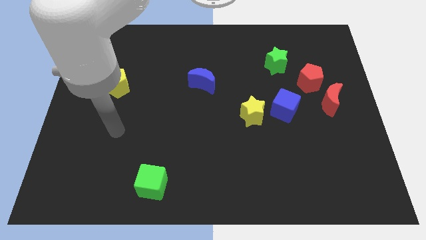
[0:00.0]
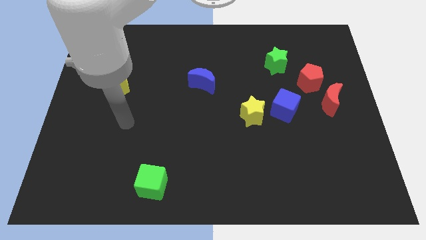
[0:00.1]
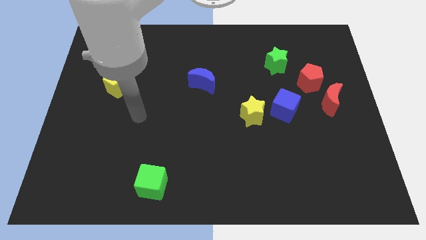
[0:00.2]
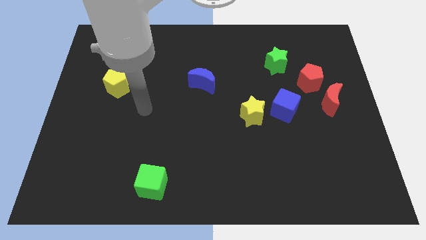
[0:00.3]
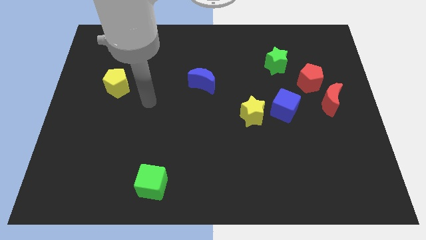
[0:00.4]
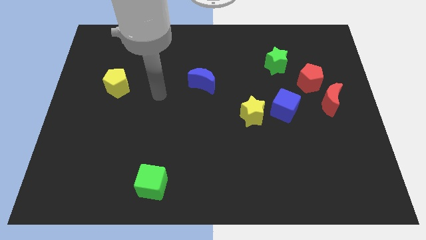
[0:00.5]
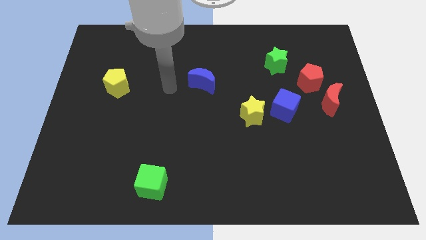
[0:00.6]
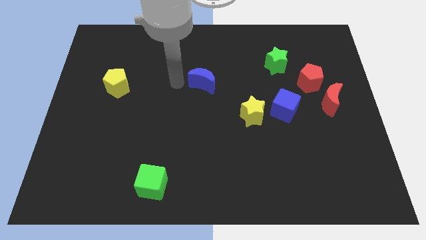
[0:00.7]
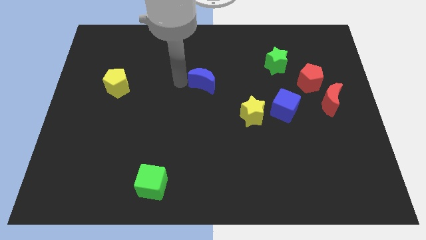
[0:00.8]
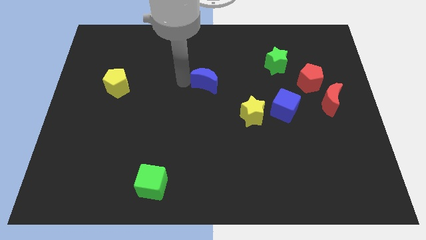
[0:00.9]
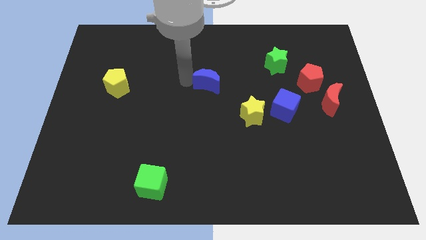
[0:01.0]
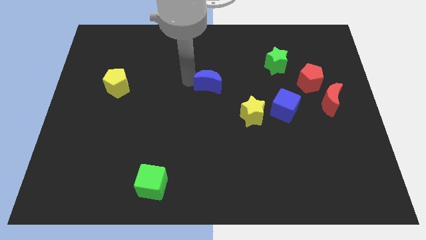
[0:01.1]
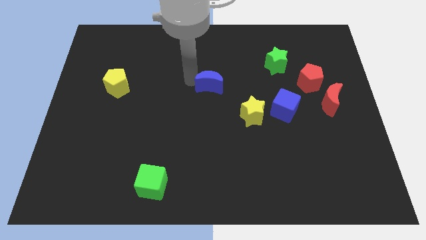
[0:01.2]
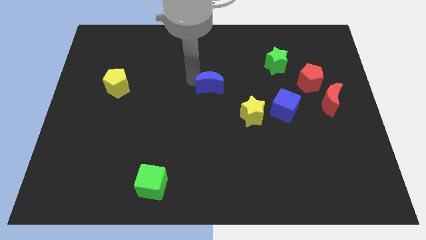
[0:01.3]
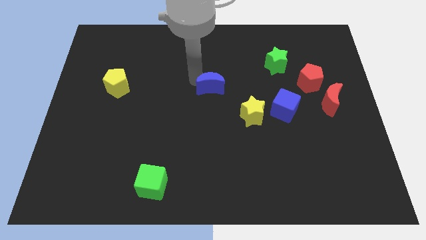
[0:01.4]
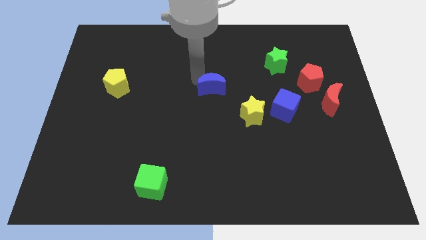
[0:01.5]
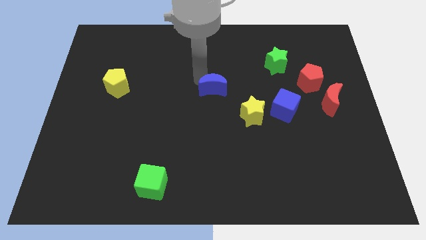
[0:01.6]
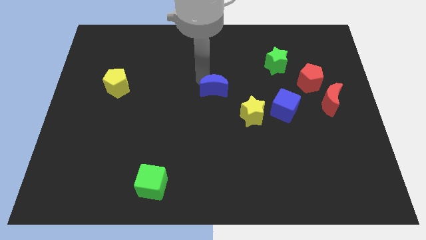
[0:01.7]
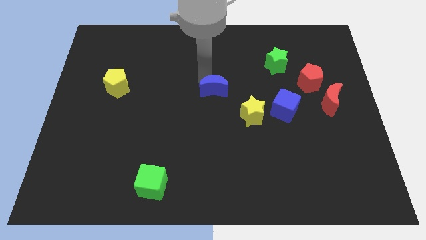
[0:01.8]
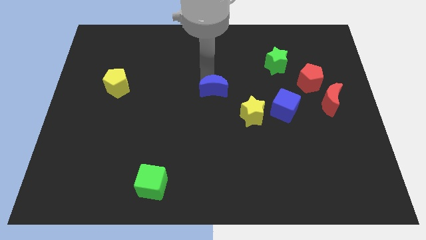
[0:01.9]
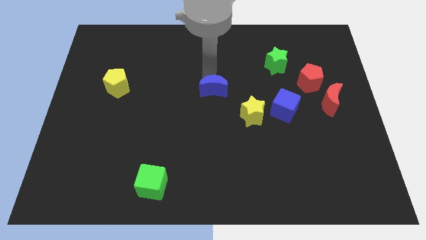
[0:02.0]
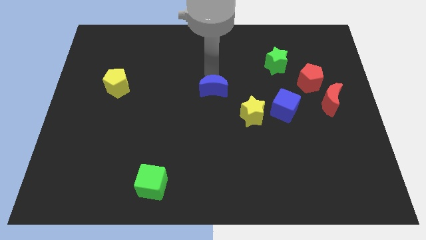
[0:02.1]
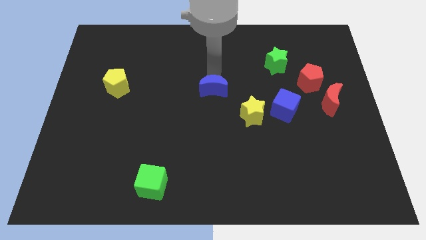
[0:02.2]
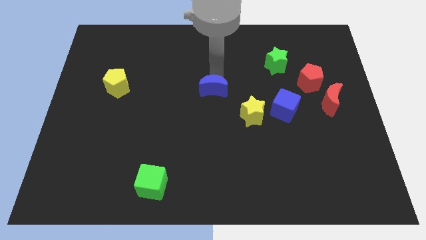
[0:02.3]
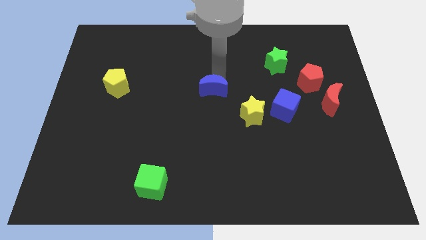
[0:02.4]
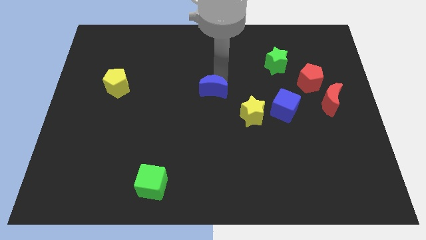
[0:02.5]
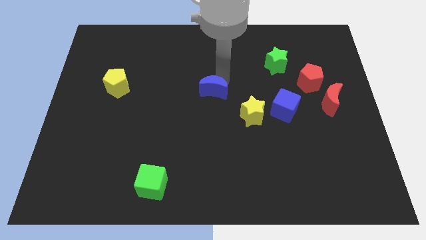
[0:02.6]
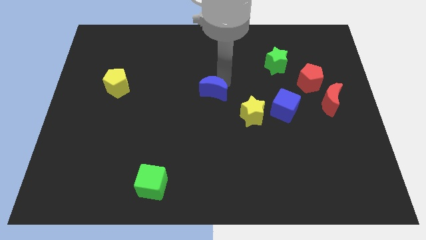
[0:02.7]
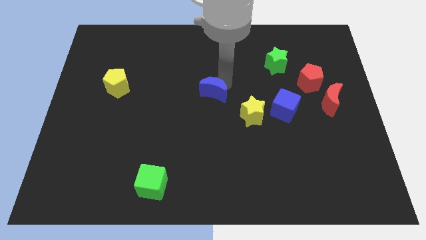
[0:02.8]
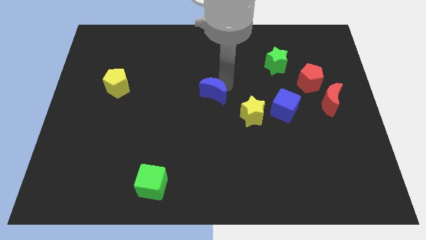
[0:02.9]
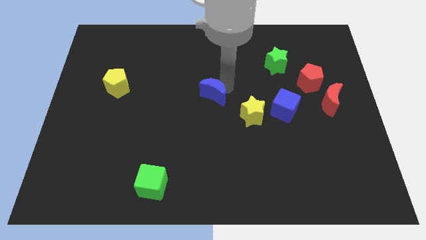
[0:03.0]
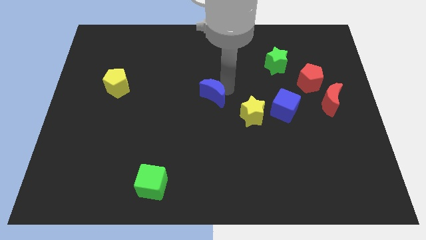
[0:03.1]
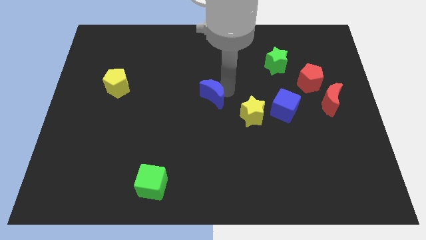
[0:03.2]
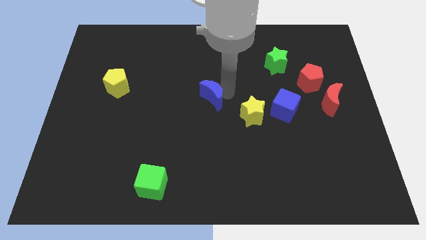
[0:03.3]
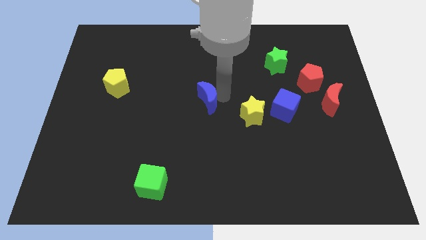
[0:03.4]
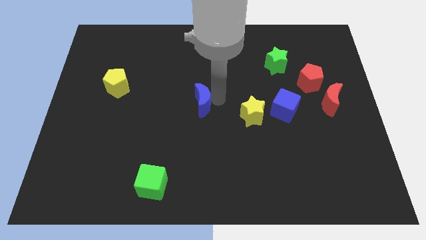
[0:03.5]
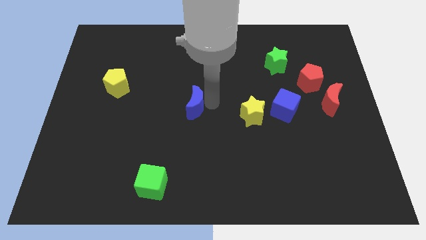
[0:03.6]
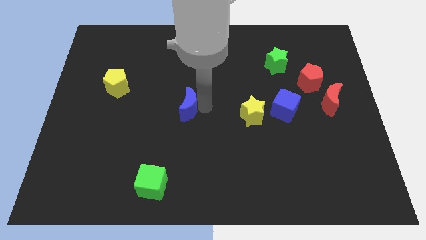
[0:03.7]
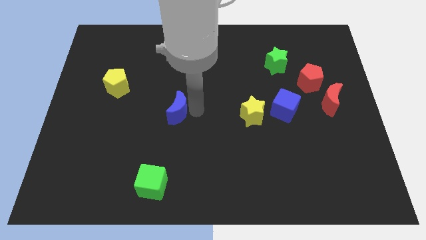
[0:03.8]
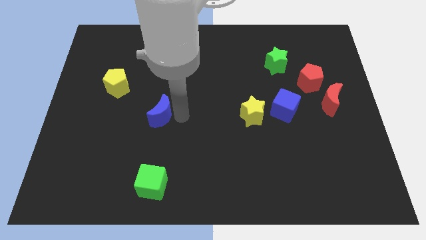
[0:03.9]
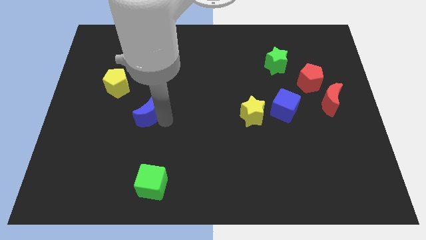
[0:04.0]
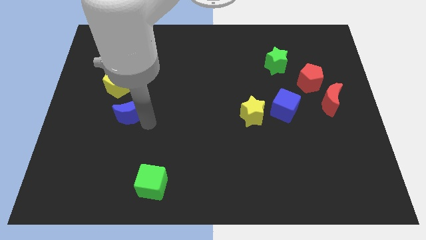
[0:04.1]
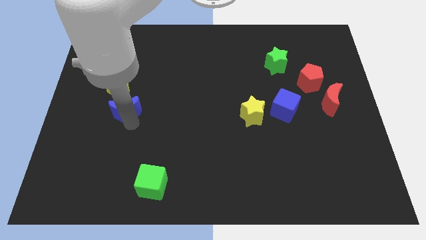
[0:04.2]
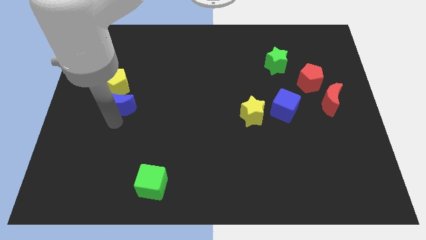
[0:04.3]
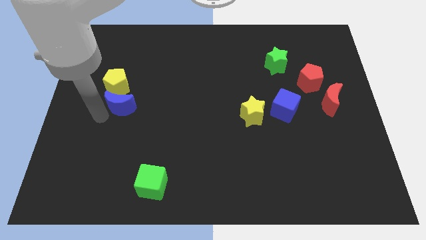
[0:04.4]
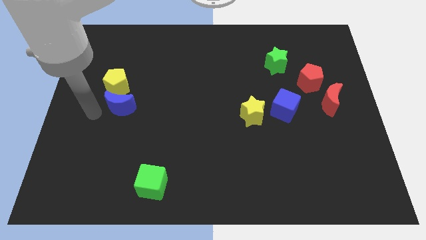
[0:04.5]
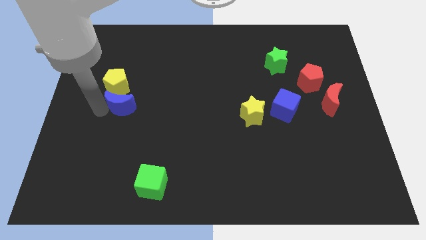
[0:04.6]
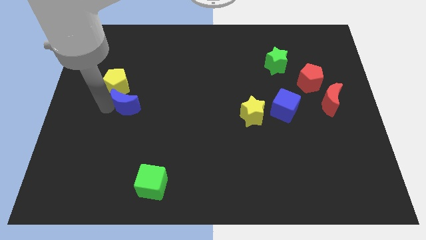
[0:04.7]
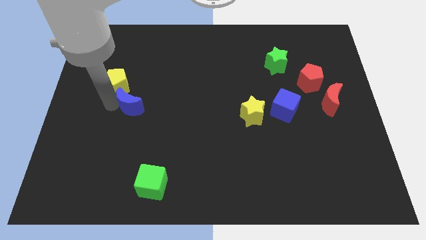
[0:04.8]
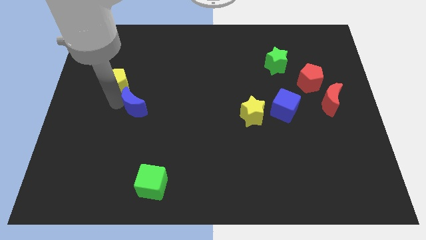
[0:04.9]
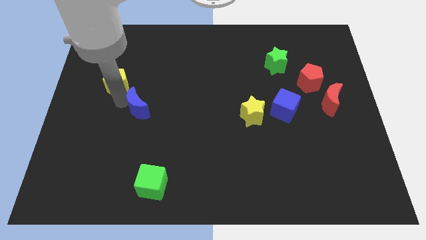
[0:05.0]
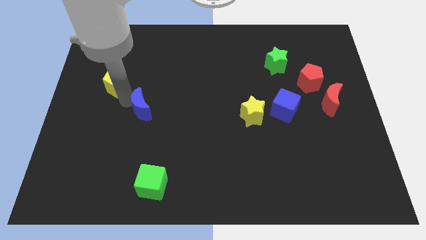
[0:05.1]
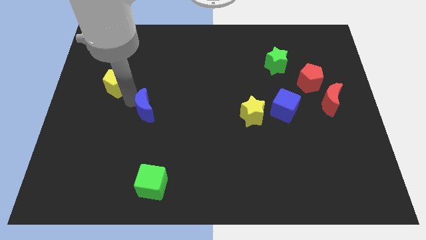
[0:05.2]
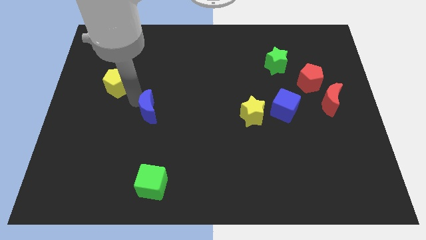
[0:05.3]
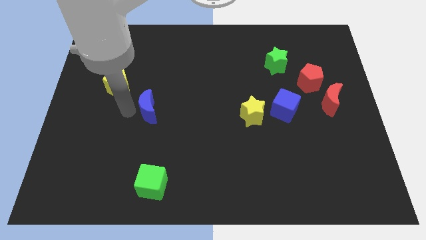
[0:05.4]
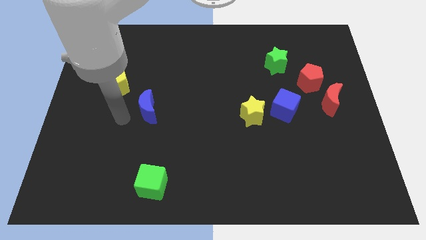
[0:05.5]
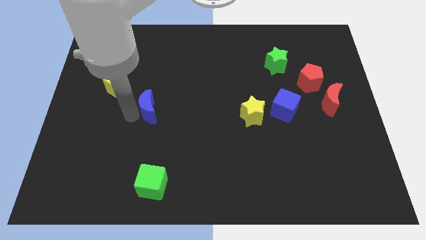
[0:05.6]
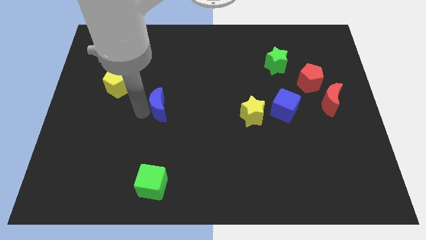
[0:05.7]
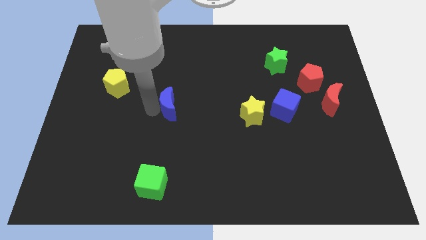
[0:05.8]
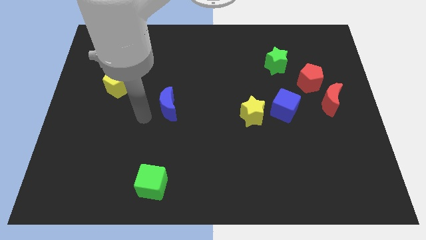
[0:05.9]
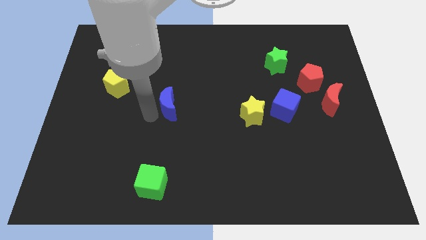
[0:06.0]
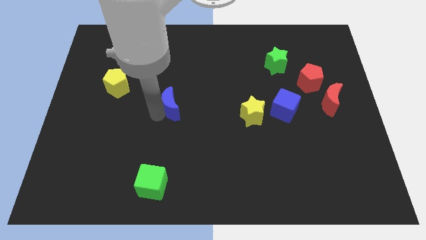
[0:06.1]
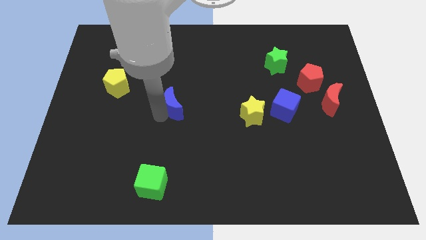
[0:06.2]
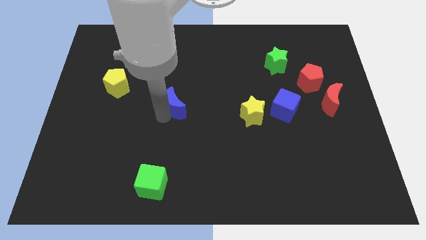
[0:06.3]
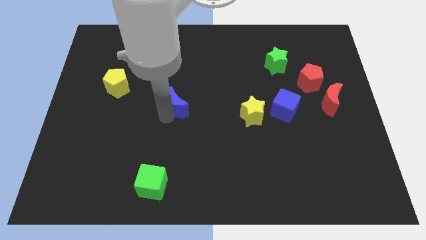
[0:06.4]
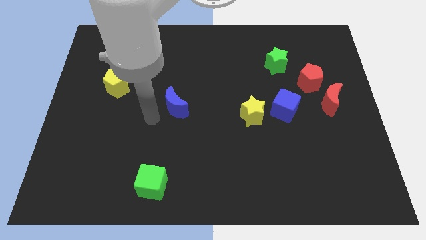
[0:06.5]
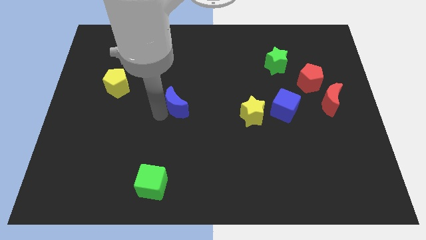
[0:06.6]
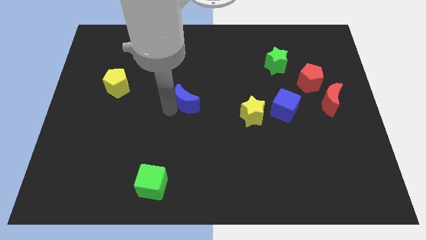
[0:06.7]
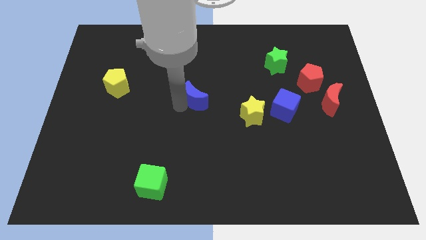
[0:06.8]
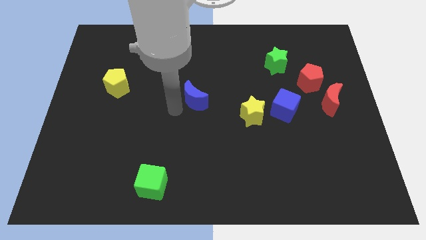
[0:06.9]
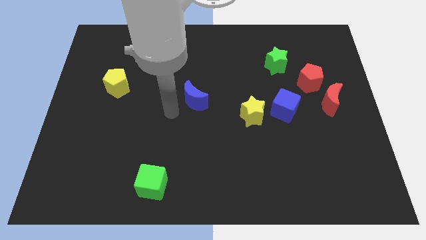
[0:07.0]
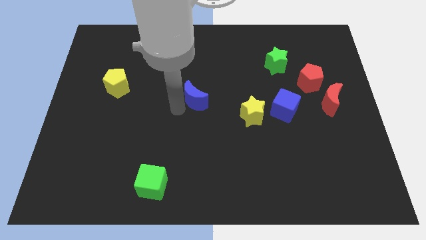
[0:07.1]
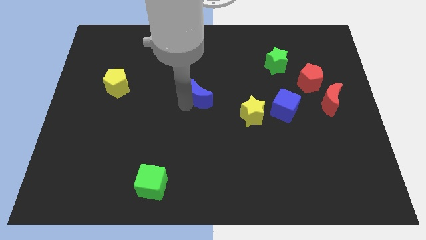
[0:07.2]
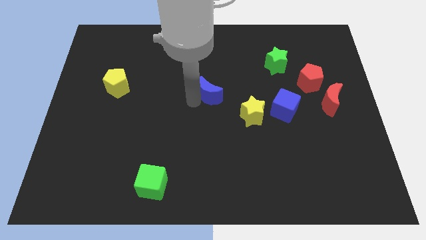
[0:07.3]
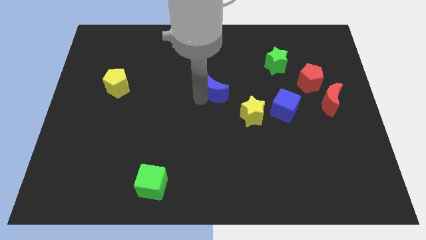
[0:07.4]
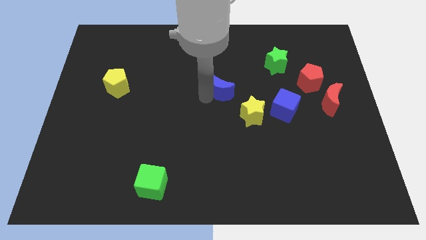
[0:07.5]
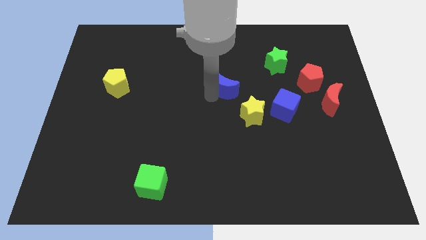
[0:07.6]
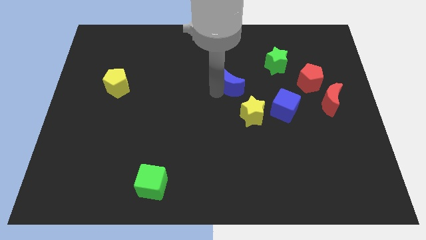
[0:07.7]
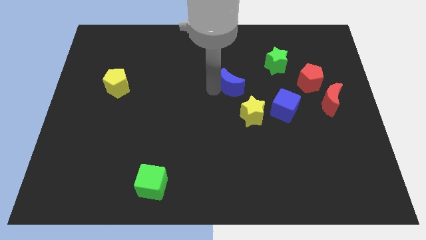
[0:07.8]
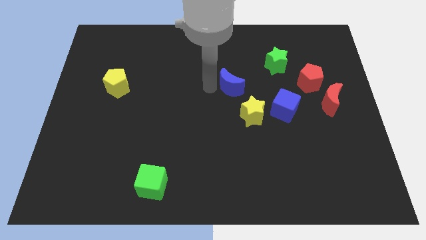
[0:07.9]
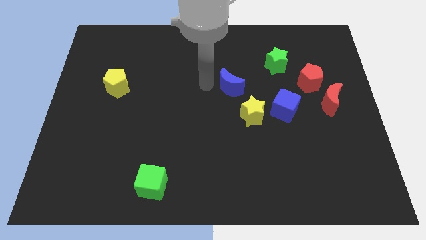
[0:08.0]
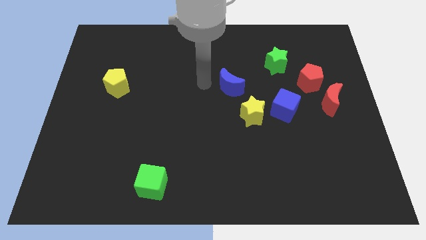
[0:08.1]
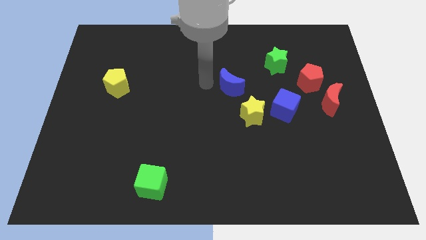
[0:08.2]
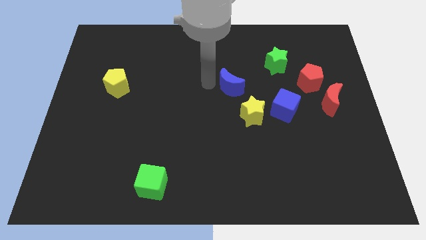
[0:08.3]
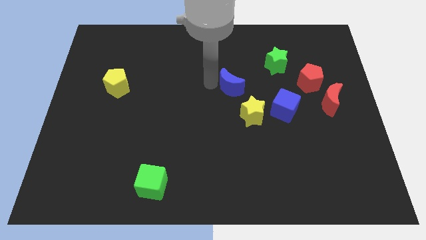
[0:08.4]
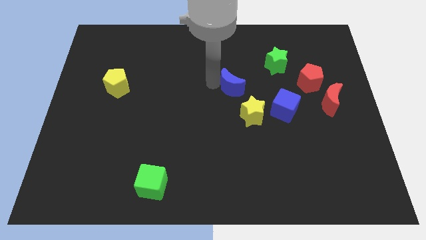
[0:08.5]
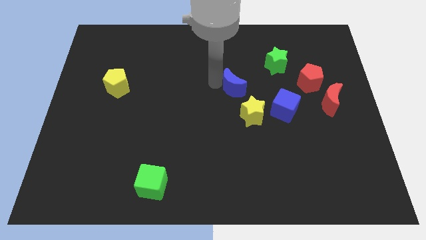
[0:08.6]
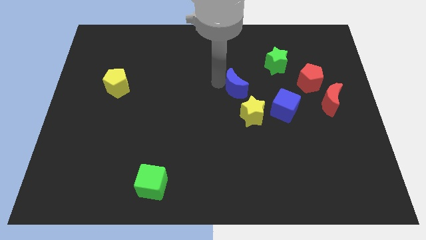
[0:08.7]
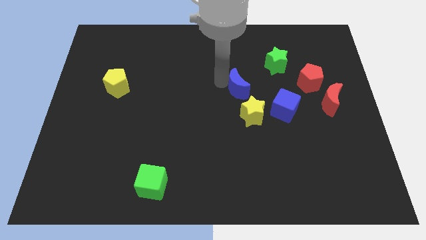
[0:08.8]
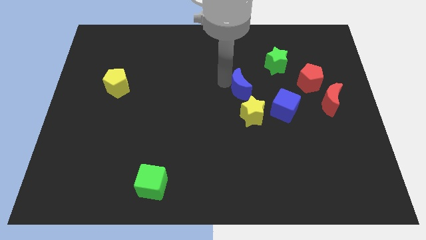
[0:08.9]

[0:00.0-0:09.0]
slide the blue moon to the top left side of the blue cube
